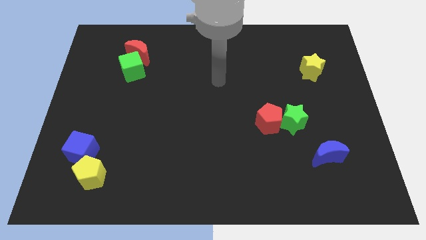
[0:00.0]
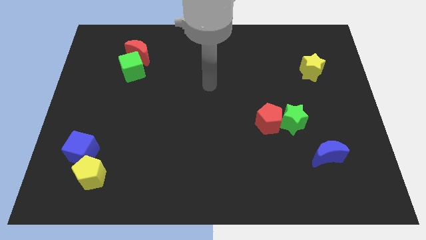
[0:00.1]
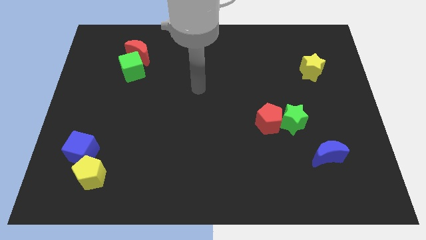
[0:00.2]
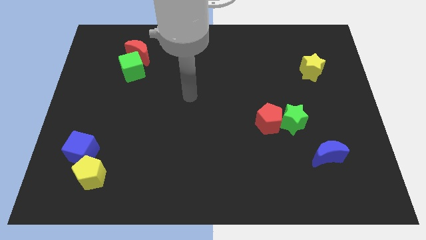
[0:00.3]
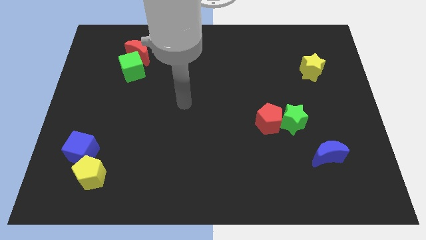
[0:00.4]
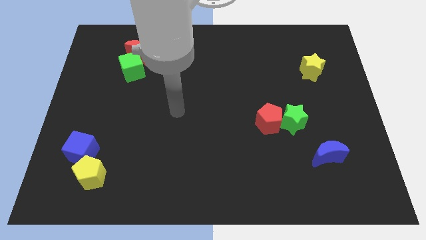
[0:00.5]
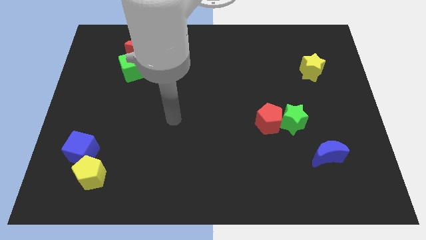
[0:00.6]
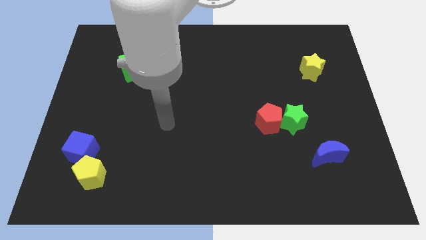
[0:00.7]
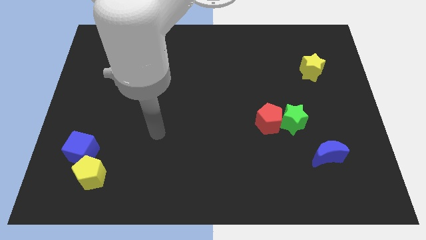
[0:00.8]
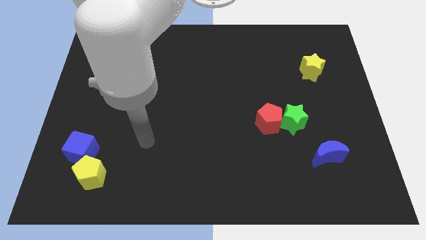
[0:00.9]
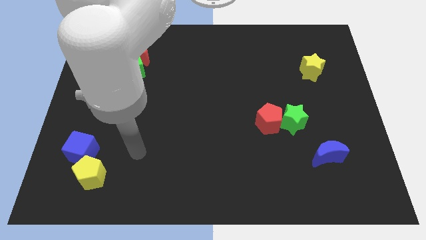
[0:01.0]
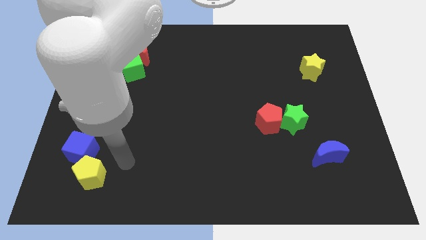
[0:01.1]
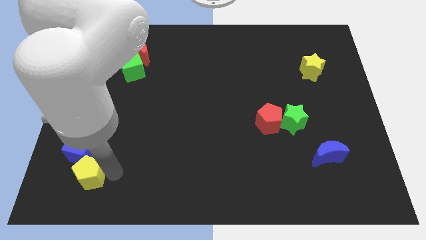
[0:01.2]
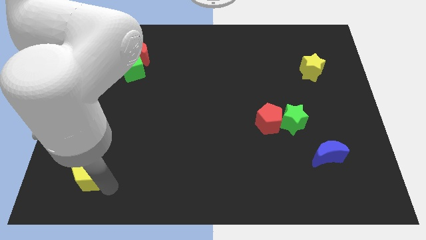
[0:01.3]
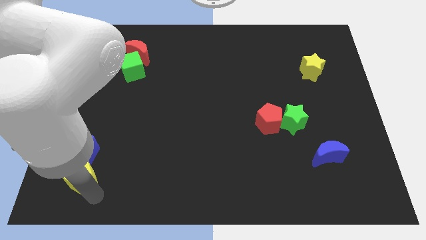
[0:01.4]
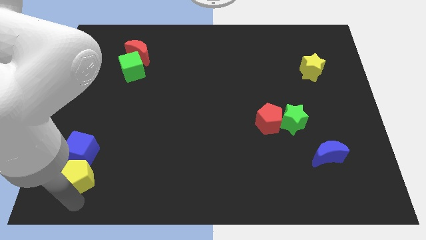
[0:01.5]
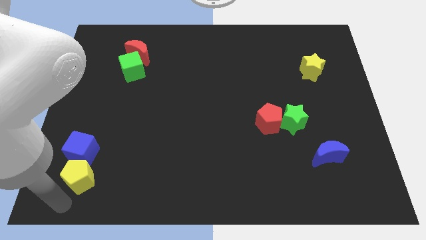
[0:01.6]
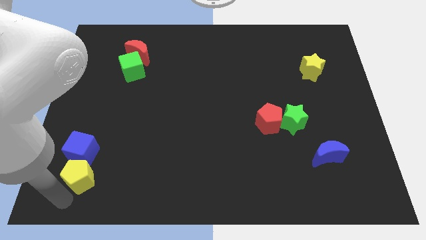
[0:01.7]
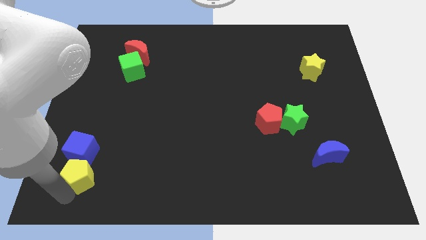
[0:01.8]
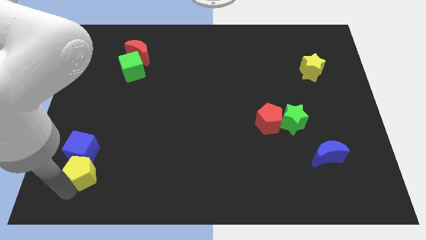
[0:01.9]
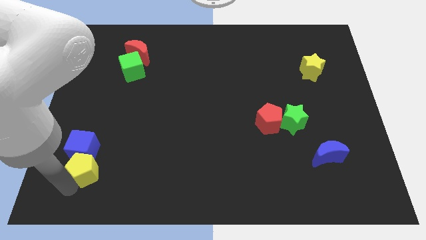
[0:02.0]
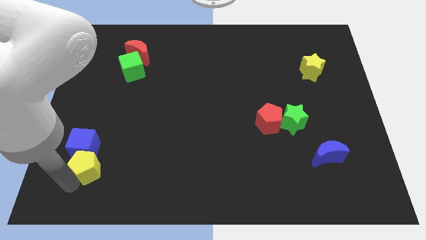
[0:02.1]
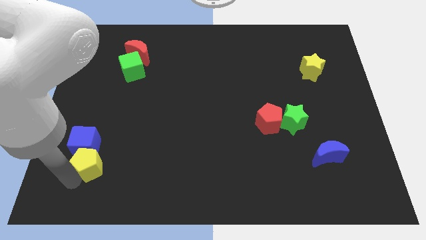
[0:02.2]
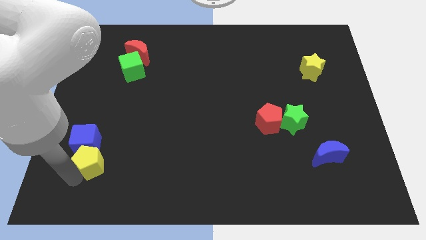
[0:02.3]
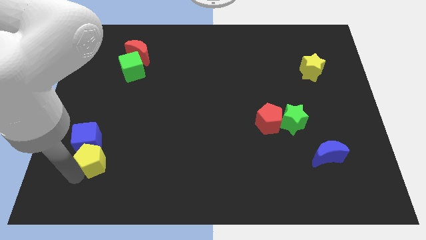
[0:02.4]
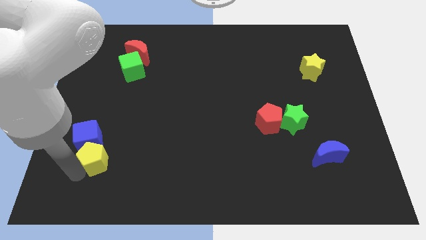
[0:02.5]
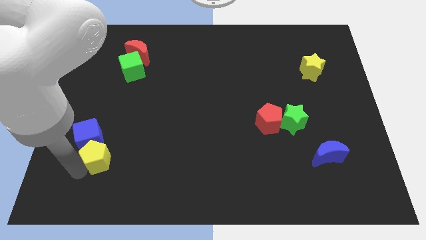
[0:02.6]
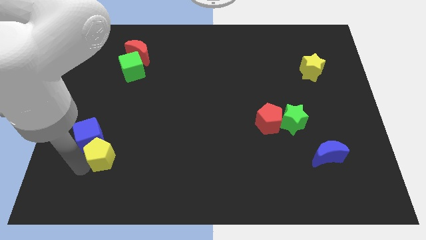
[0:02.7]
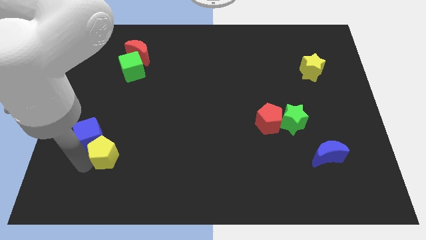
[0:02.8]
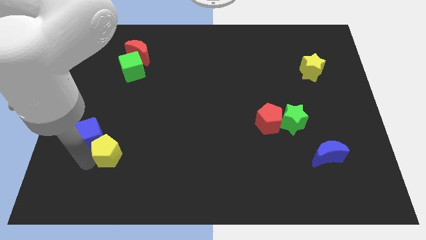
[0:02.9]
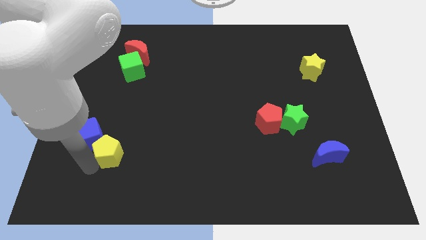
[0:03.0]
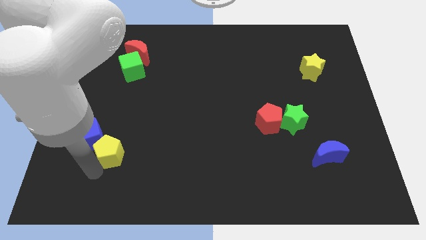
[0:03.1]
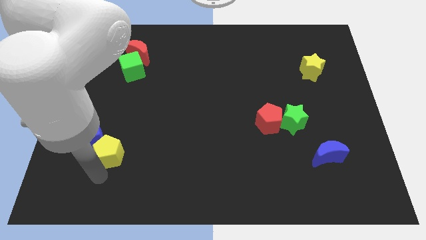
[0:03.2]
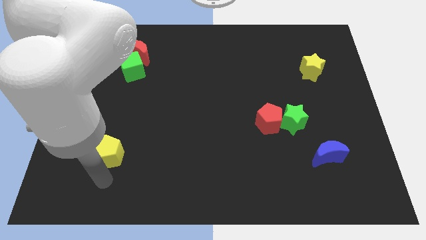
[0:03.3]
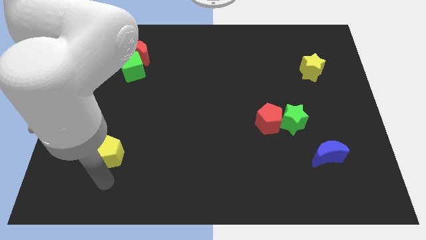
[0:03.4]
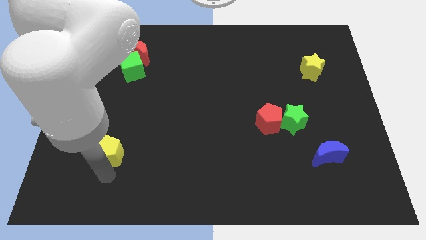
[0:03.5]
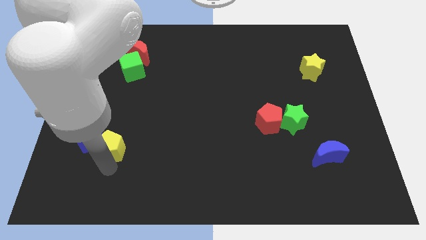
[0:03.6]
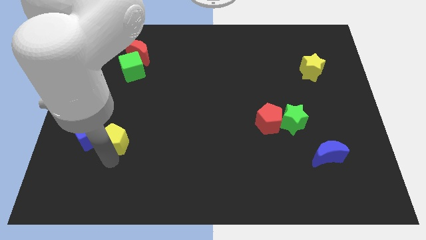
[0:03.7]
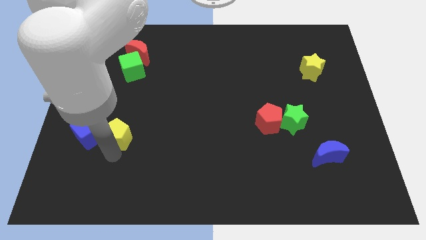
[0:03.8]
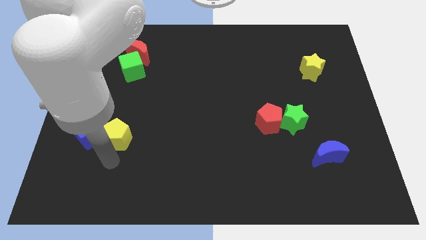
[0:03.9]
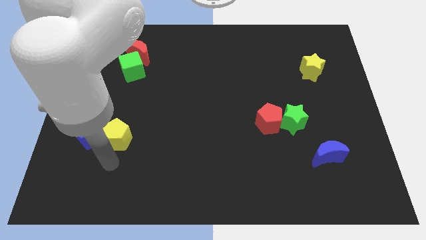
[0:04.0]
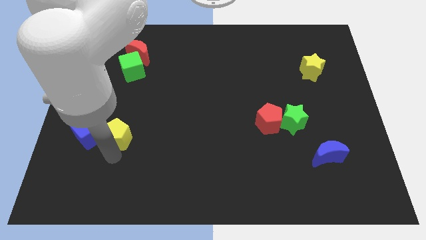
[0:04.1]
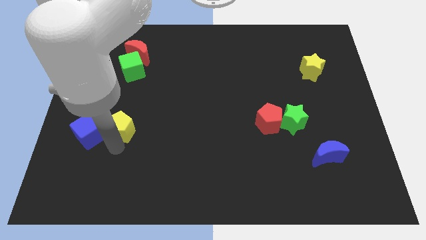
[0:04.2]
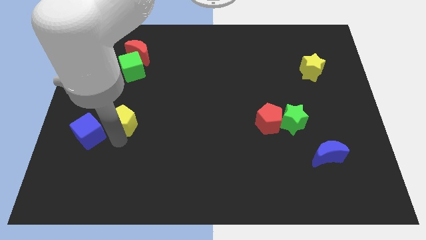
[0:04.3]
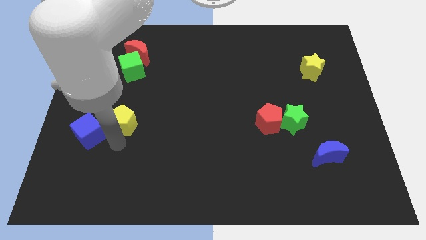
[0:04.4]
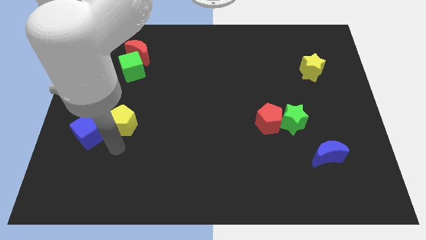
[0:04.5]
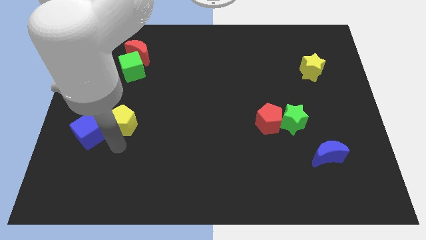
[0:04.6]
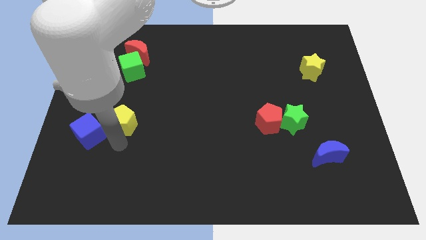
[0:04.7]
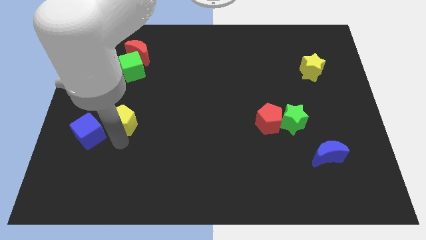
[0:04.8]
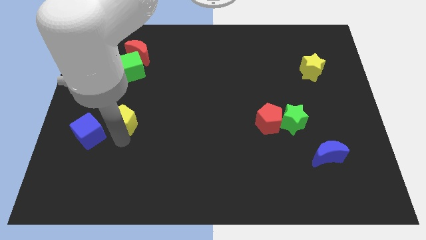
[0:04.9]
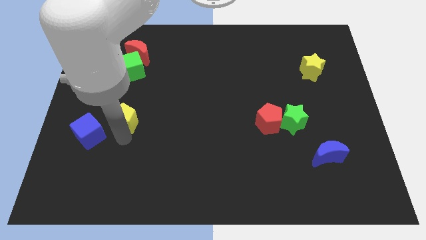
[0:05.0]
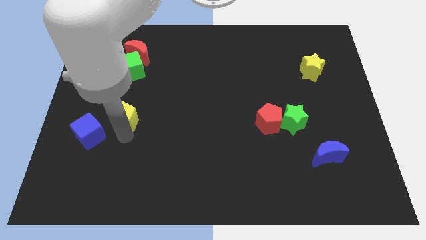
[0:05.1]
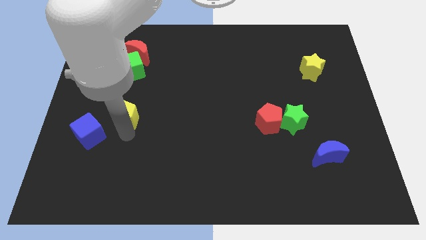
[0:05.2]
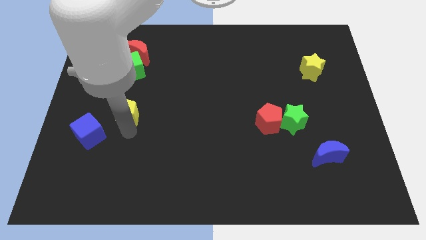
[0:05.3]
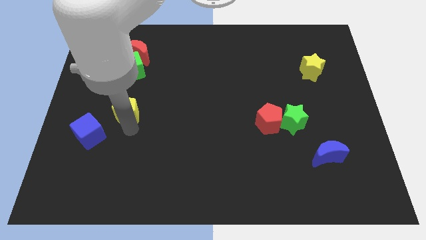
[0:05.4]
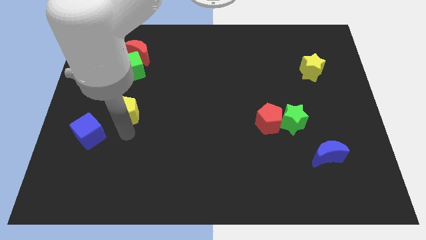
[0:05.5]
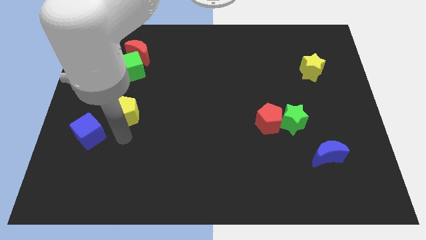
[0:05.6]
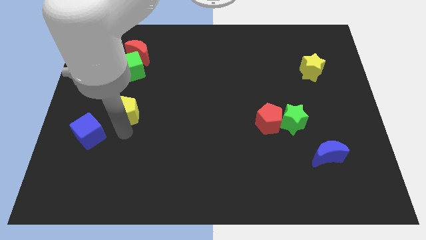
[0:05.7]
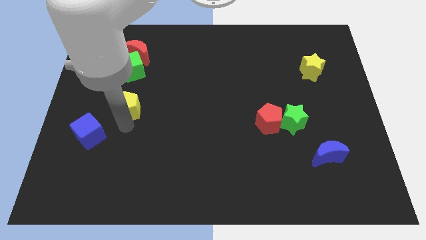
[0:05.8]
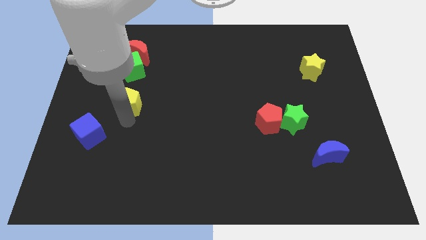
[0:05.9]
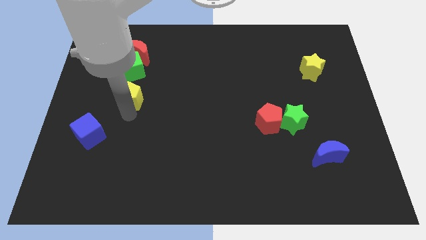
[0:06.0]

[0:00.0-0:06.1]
push the yellow pentagon below the red moon

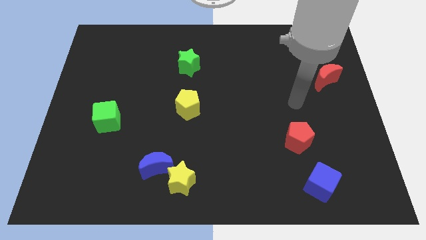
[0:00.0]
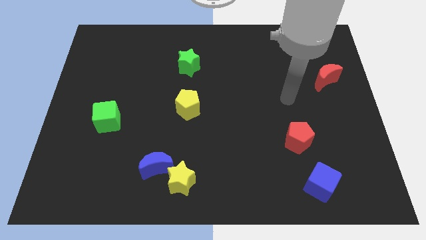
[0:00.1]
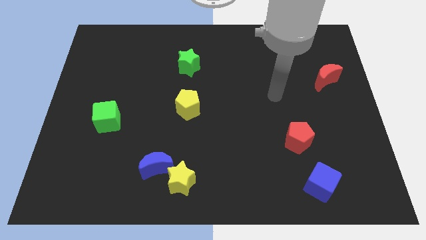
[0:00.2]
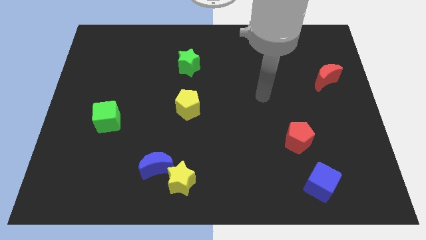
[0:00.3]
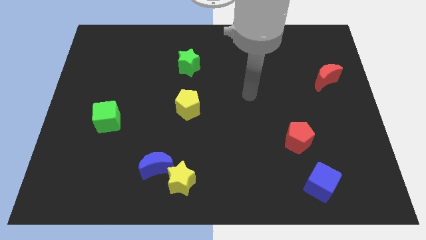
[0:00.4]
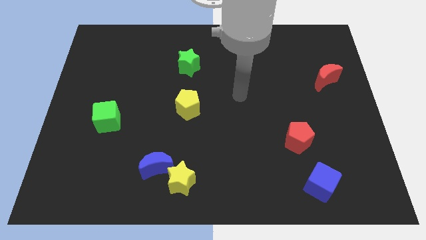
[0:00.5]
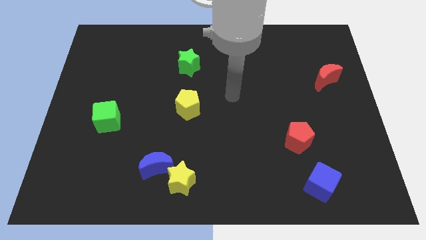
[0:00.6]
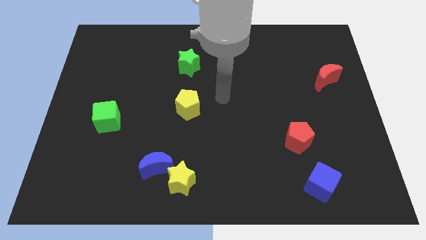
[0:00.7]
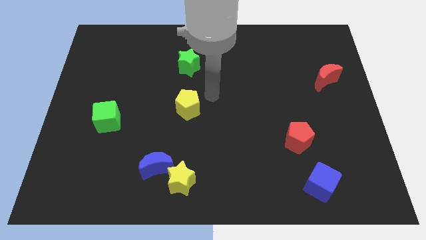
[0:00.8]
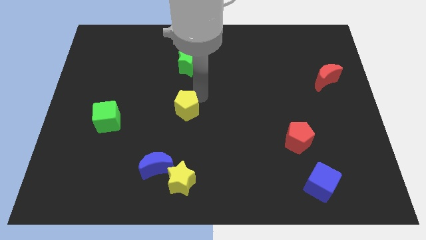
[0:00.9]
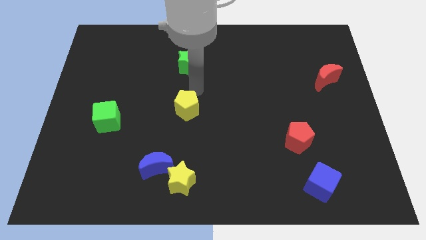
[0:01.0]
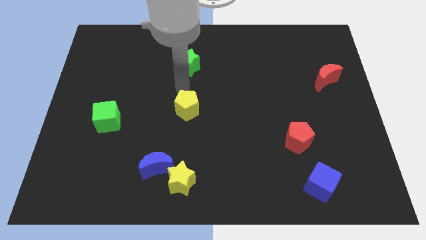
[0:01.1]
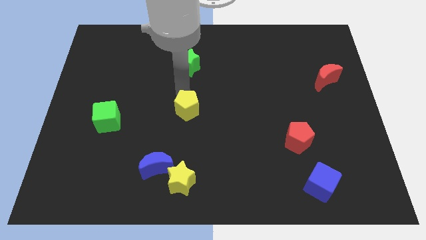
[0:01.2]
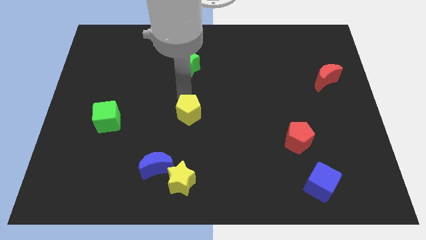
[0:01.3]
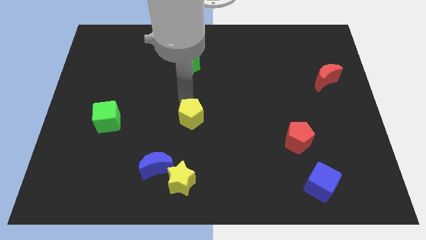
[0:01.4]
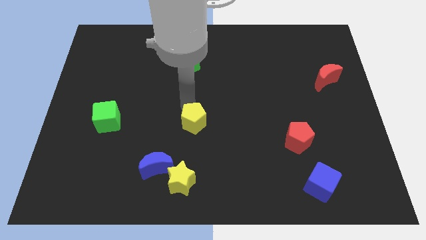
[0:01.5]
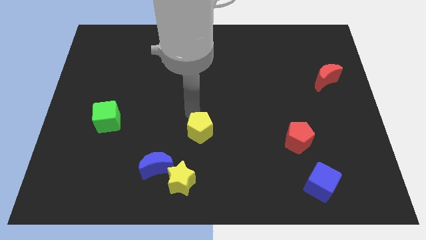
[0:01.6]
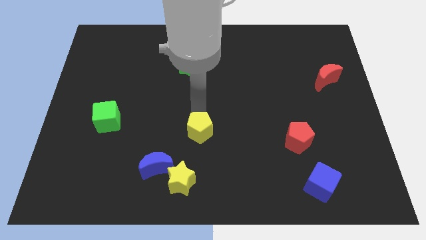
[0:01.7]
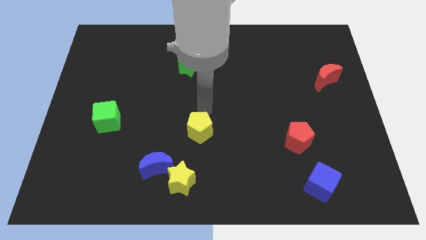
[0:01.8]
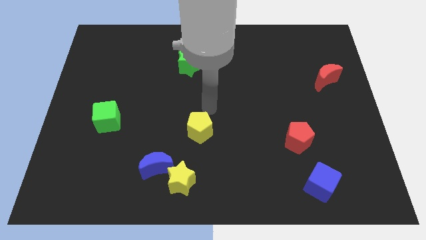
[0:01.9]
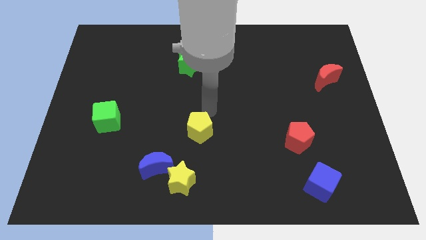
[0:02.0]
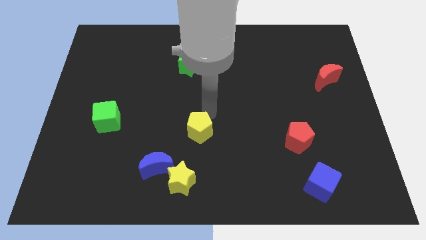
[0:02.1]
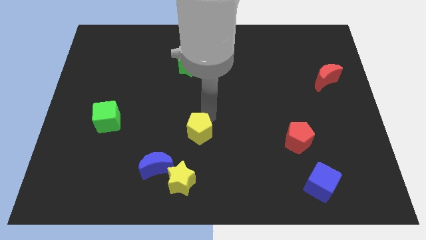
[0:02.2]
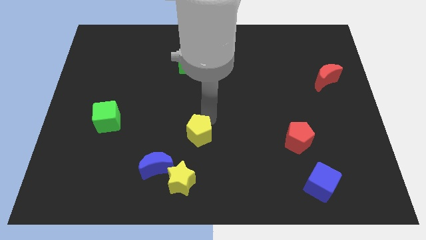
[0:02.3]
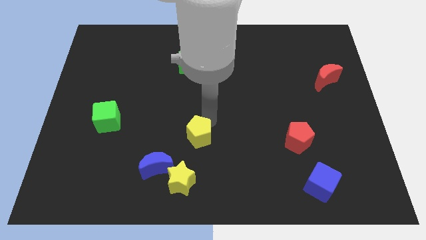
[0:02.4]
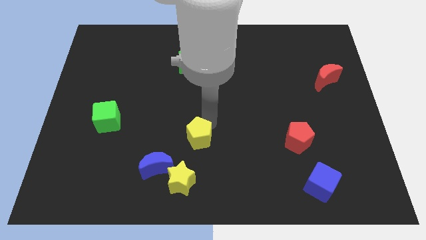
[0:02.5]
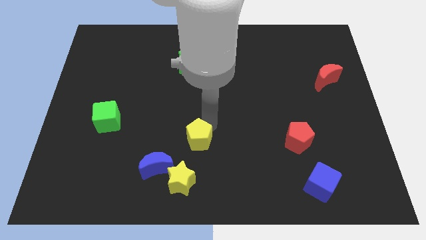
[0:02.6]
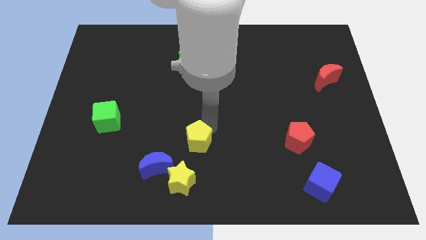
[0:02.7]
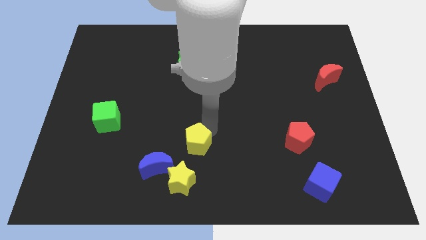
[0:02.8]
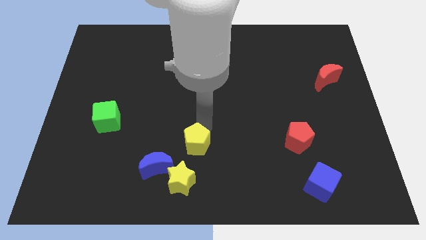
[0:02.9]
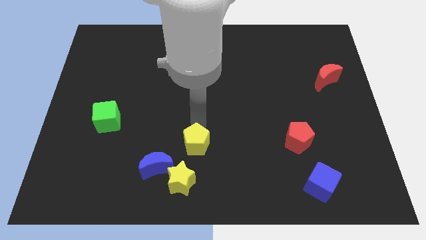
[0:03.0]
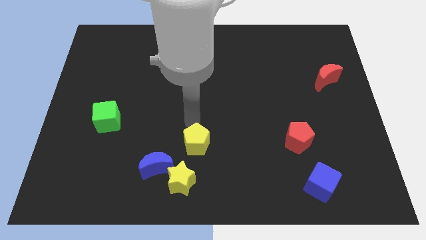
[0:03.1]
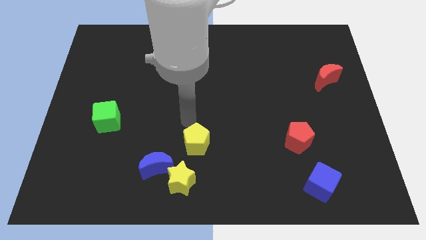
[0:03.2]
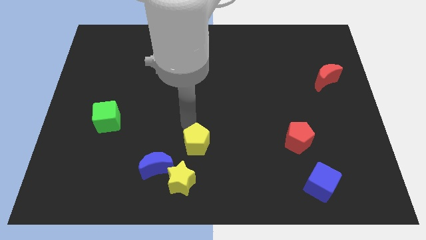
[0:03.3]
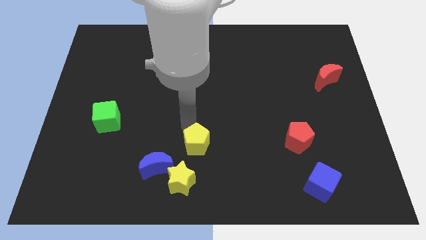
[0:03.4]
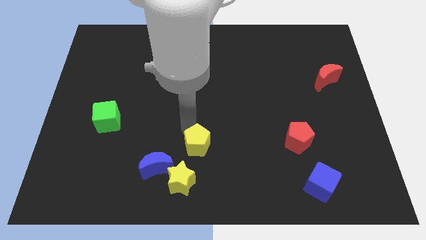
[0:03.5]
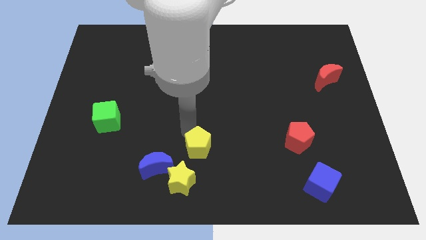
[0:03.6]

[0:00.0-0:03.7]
push the yellow pentagon to the right side of the blue moon
